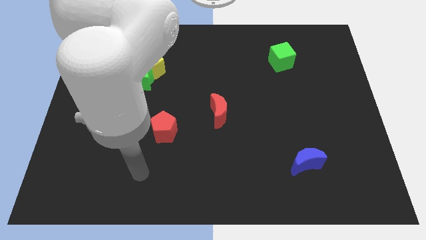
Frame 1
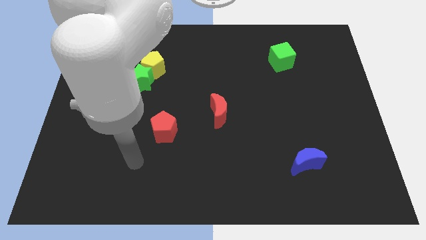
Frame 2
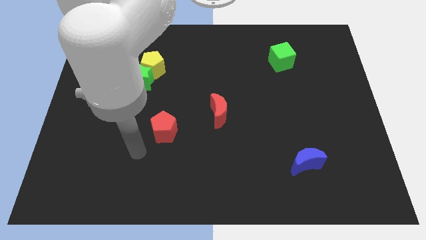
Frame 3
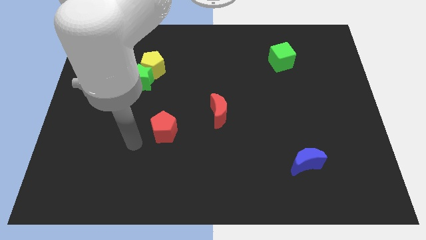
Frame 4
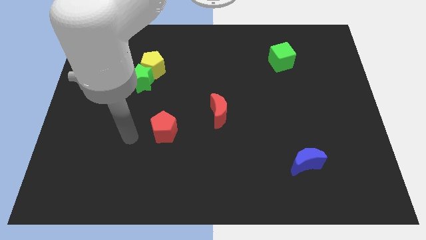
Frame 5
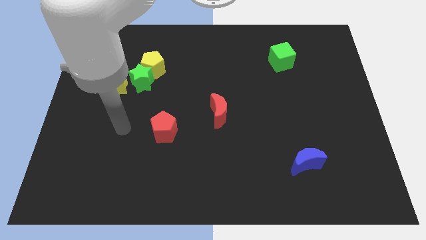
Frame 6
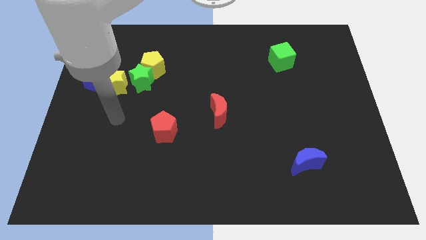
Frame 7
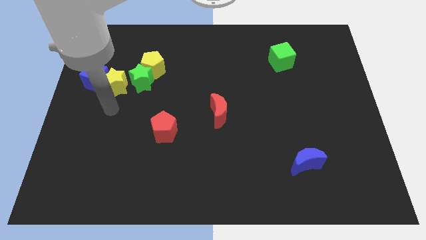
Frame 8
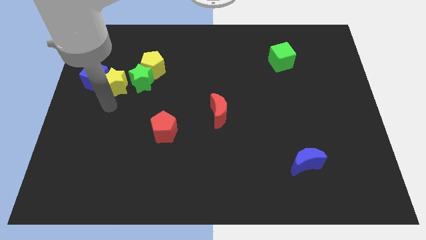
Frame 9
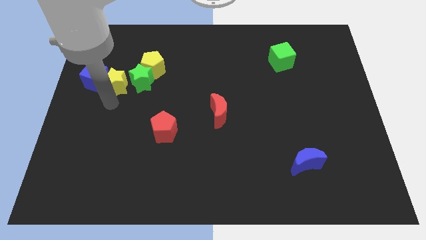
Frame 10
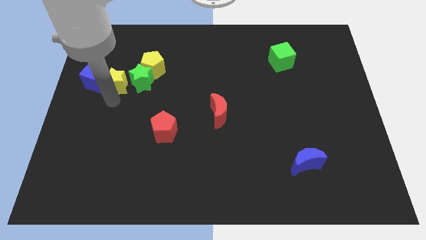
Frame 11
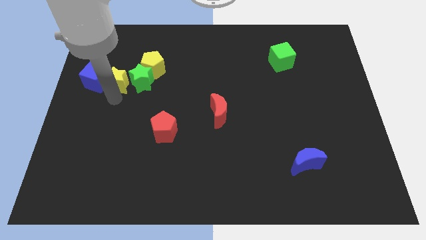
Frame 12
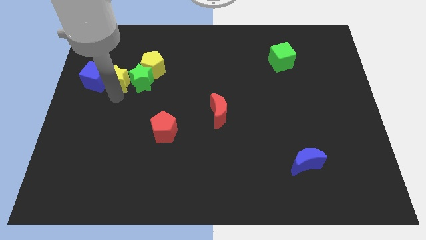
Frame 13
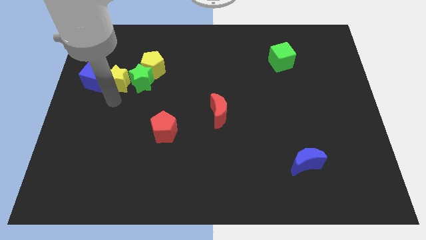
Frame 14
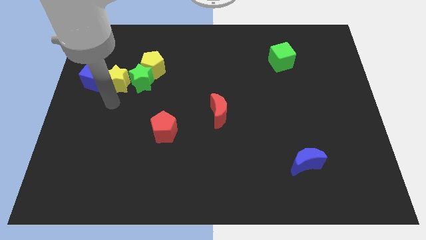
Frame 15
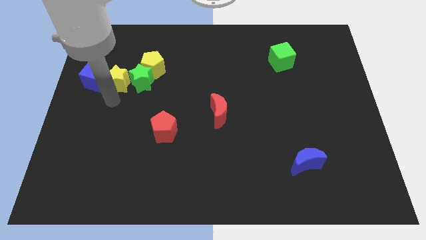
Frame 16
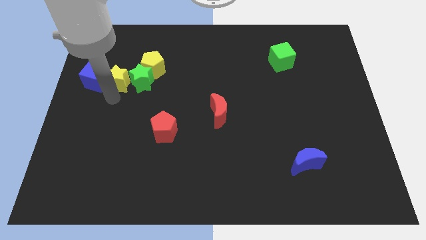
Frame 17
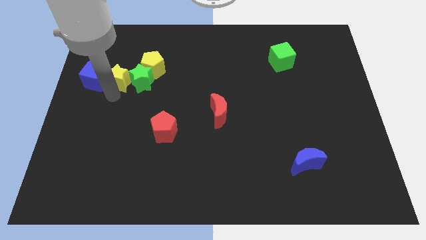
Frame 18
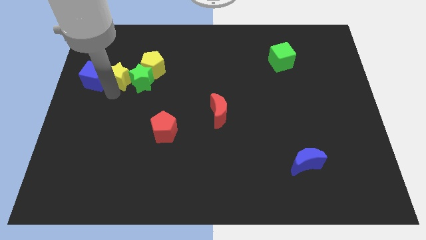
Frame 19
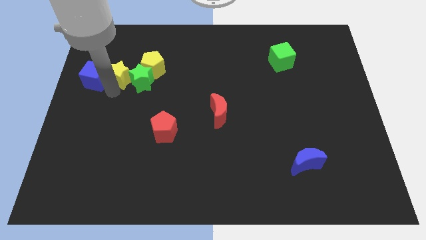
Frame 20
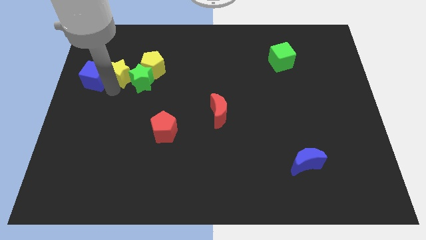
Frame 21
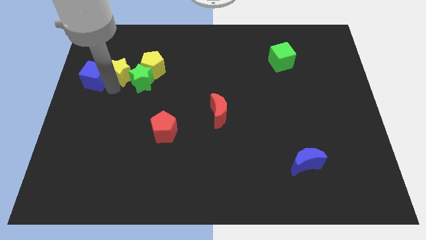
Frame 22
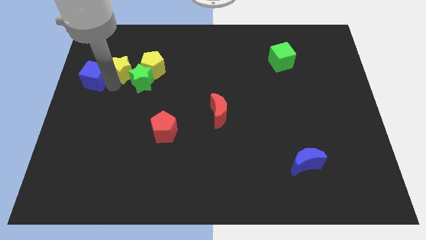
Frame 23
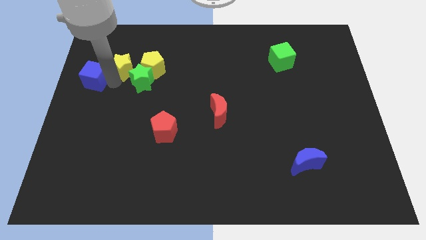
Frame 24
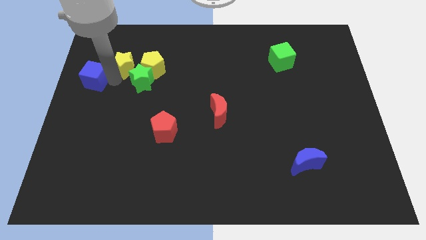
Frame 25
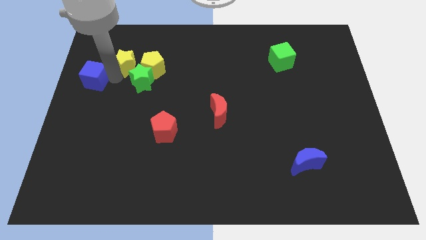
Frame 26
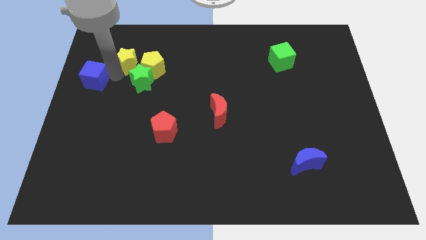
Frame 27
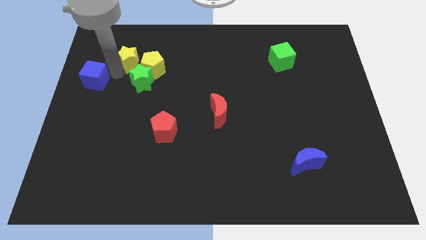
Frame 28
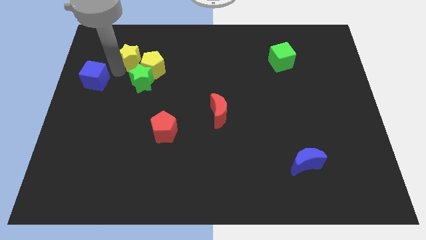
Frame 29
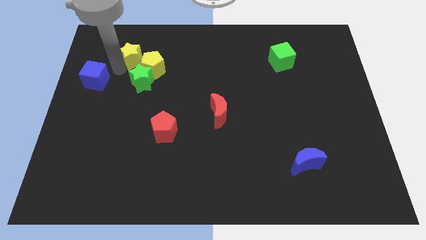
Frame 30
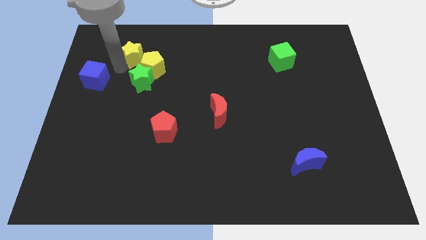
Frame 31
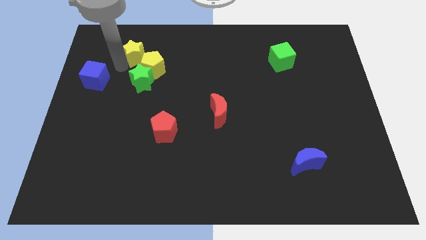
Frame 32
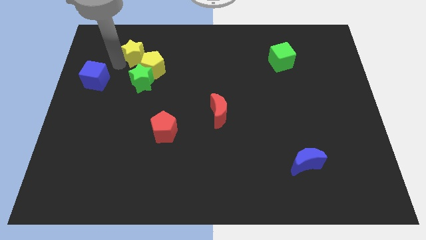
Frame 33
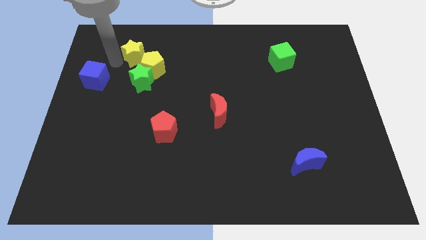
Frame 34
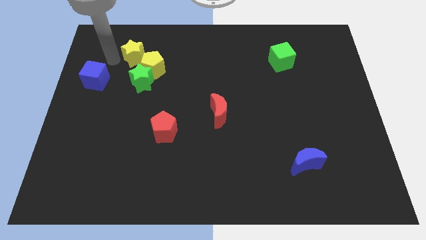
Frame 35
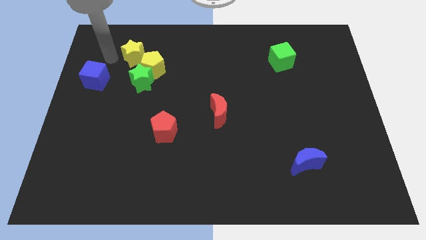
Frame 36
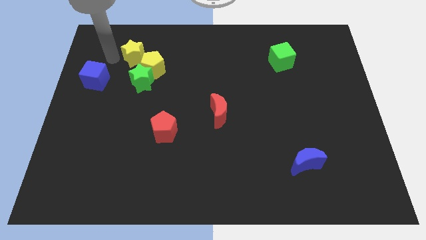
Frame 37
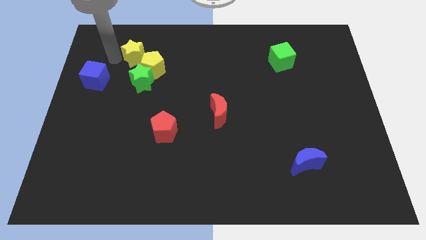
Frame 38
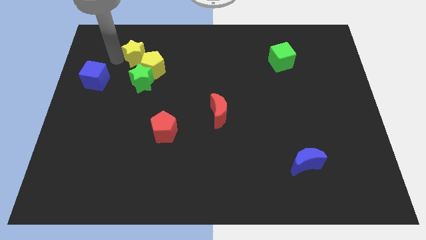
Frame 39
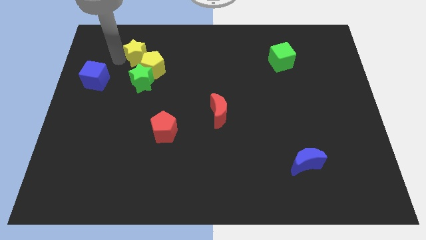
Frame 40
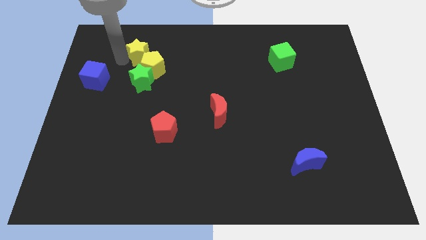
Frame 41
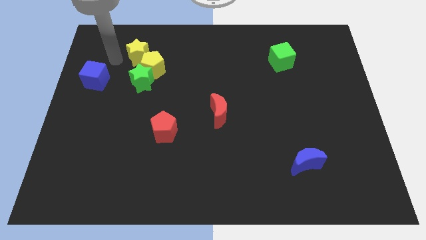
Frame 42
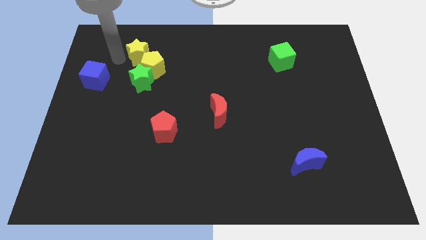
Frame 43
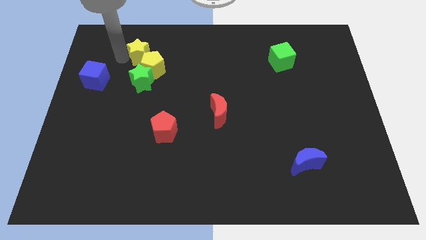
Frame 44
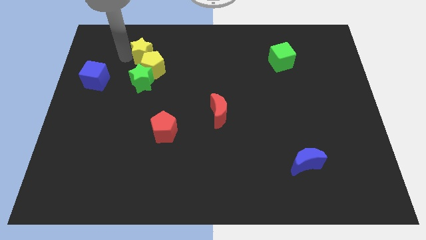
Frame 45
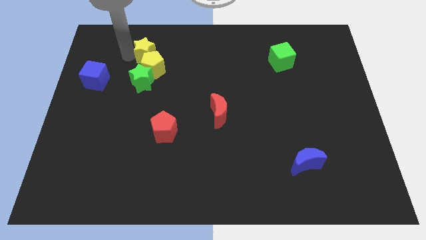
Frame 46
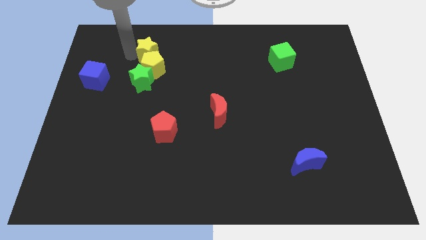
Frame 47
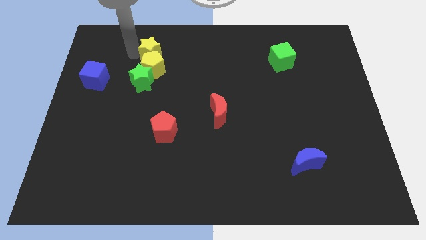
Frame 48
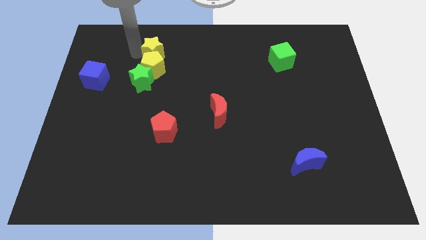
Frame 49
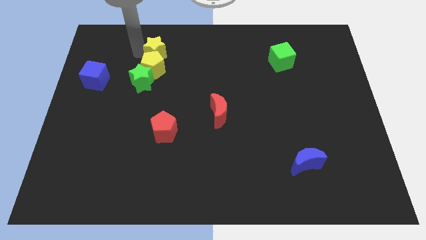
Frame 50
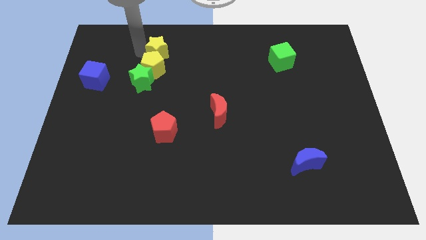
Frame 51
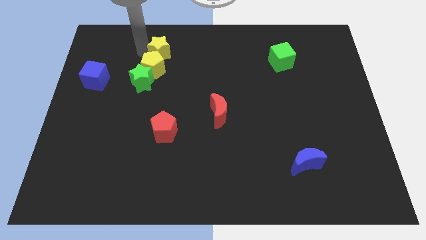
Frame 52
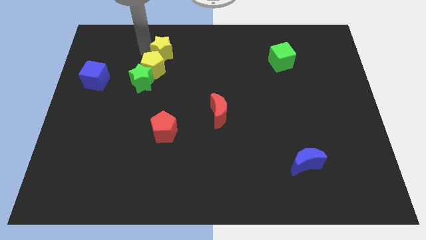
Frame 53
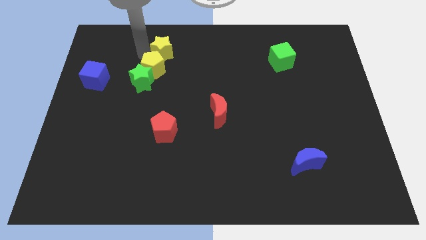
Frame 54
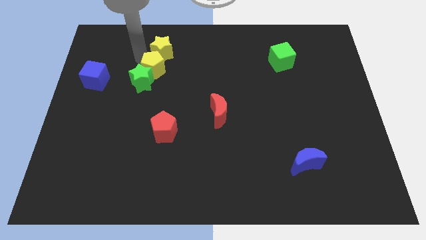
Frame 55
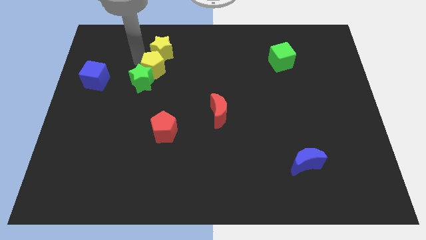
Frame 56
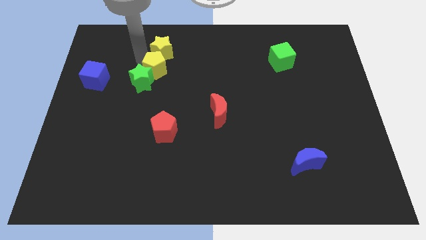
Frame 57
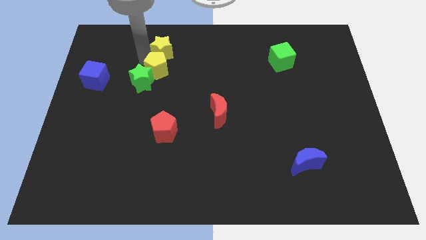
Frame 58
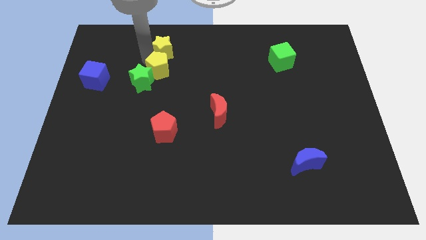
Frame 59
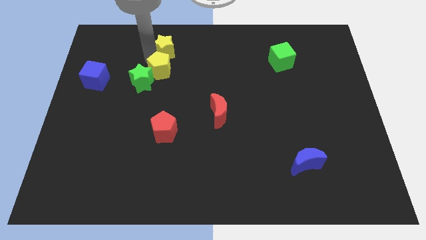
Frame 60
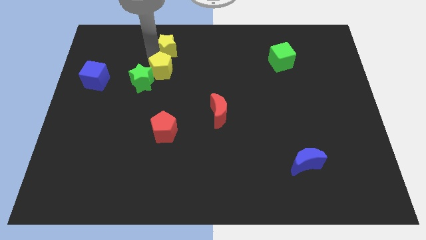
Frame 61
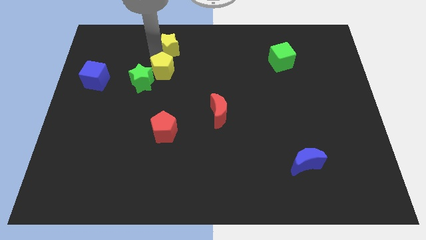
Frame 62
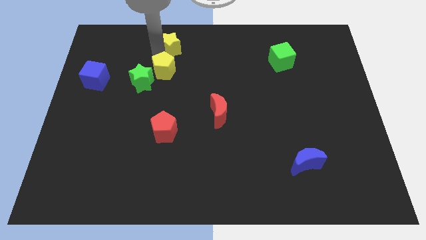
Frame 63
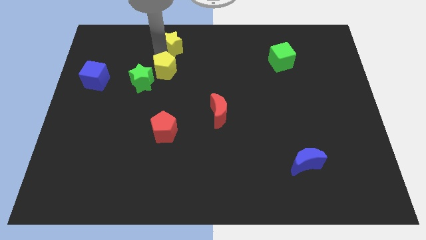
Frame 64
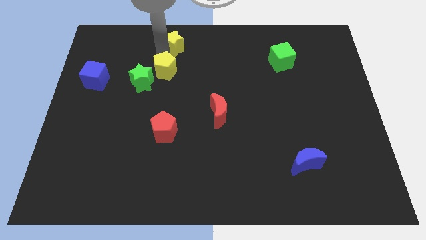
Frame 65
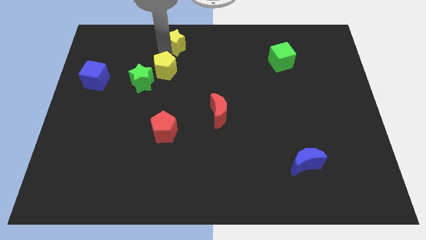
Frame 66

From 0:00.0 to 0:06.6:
push the yellow star to the top side

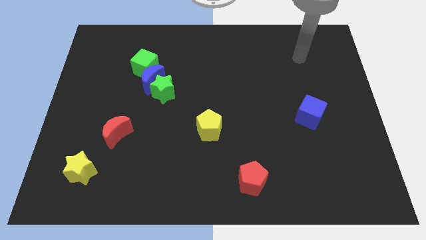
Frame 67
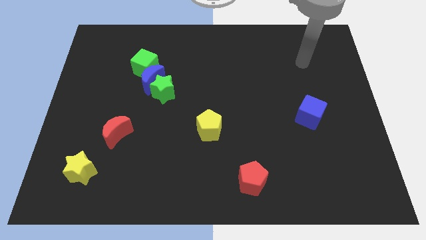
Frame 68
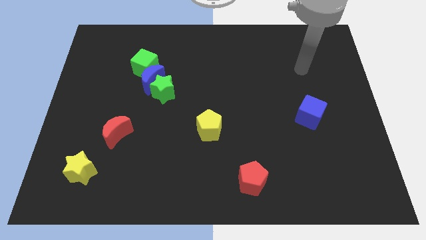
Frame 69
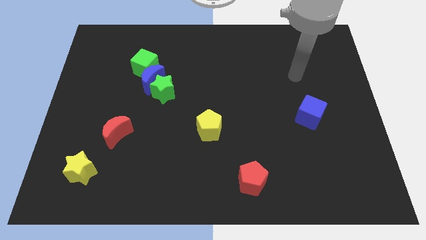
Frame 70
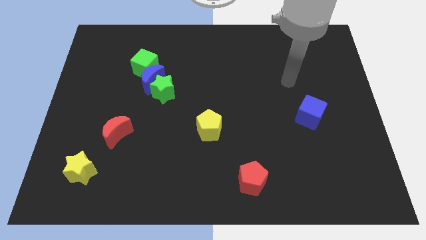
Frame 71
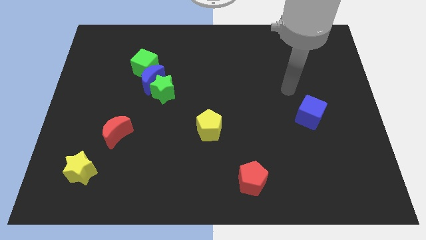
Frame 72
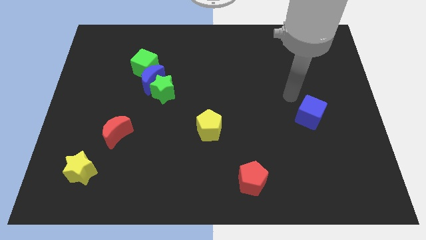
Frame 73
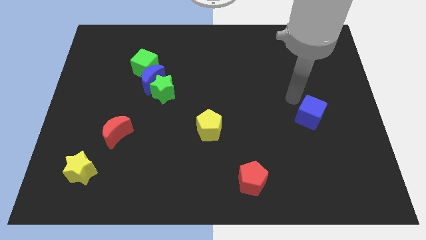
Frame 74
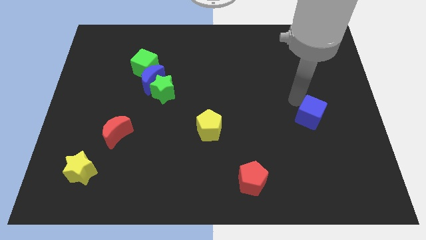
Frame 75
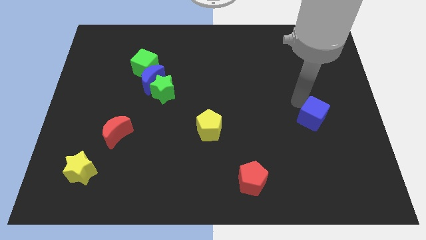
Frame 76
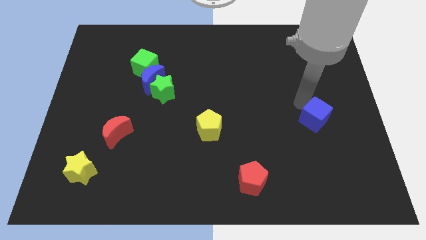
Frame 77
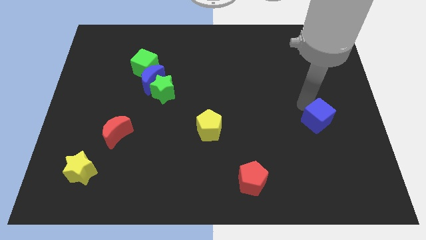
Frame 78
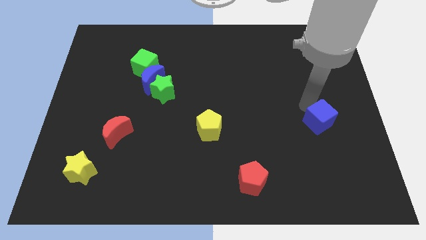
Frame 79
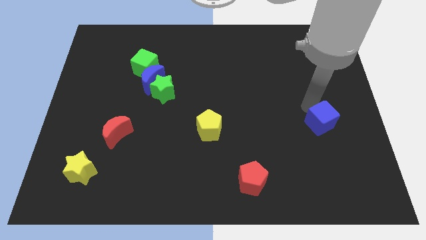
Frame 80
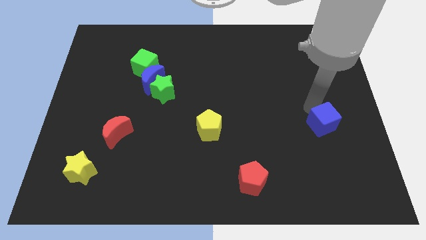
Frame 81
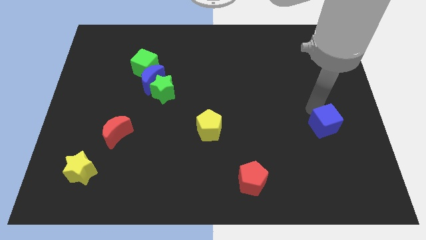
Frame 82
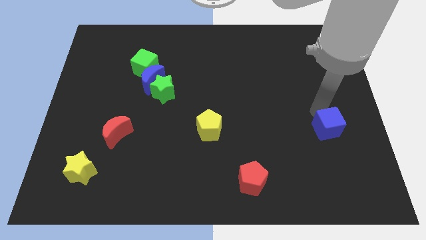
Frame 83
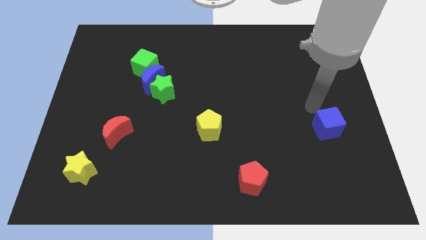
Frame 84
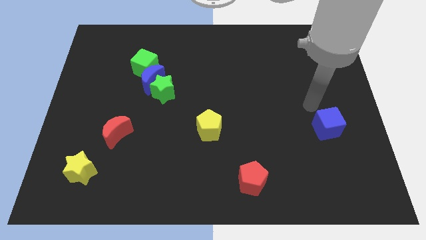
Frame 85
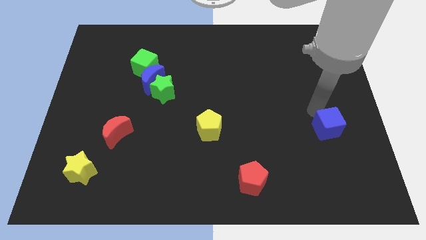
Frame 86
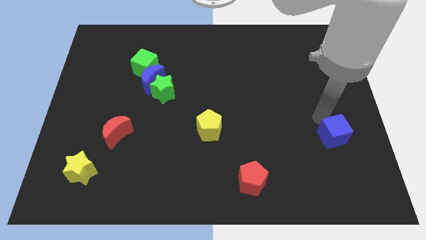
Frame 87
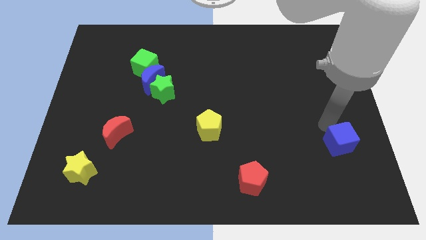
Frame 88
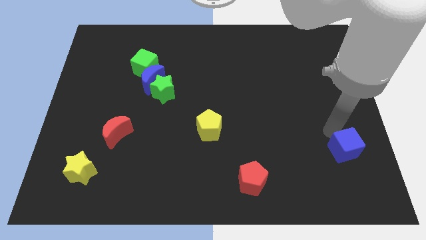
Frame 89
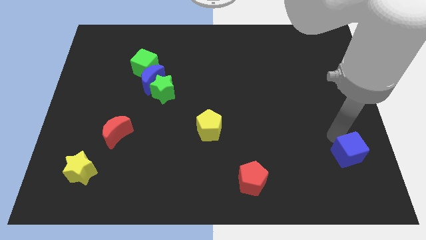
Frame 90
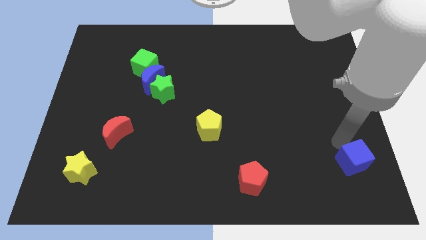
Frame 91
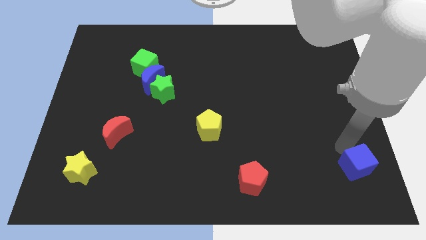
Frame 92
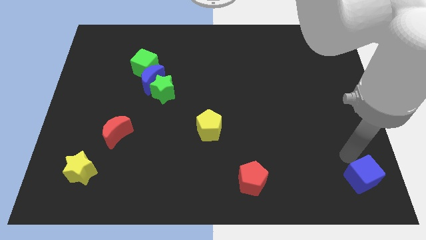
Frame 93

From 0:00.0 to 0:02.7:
slide the blue cube to the lower right corner
